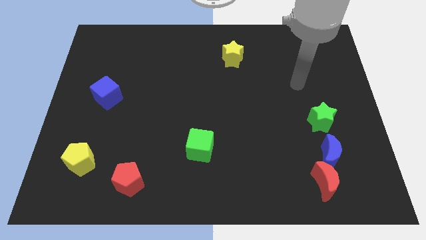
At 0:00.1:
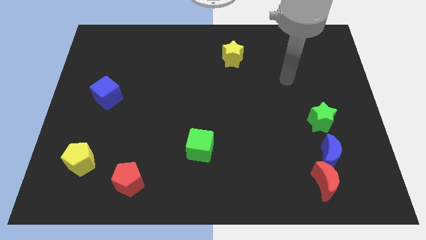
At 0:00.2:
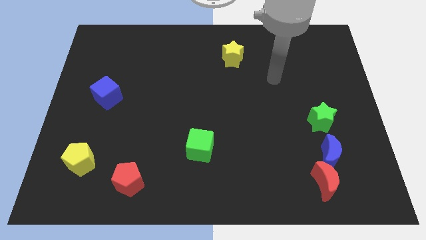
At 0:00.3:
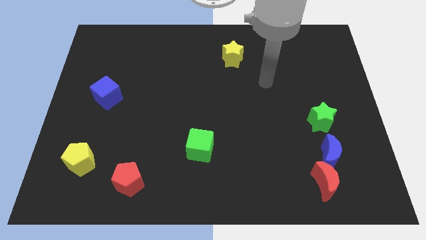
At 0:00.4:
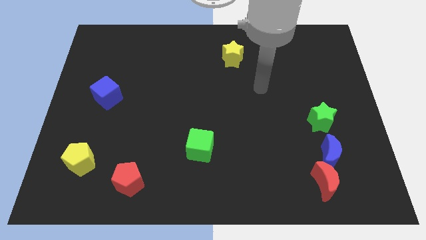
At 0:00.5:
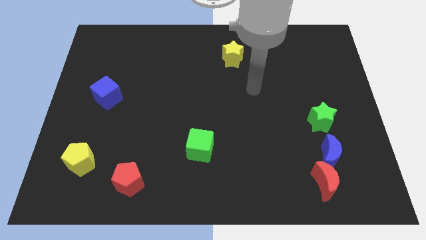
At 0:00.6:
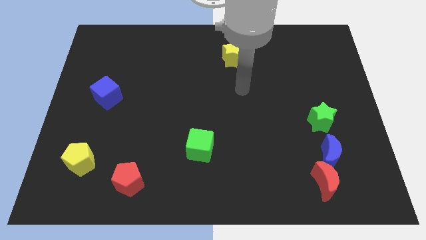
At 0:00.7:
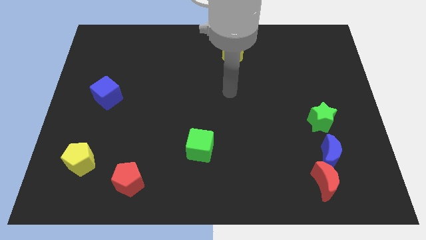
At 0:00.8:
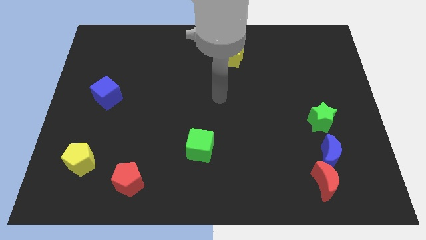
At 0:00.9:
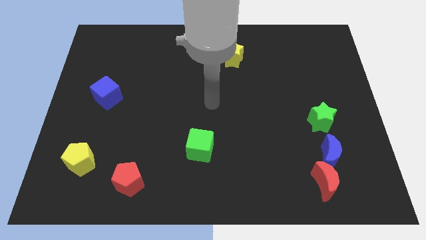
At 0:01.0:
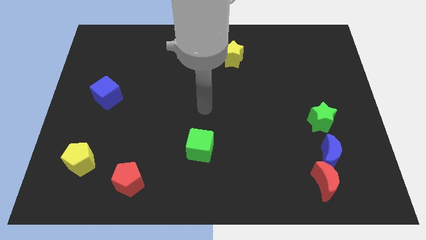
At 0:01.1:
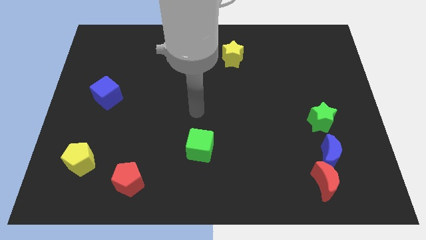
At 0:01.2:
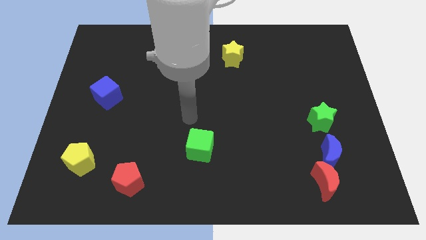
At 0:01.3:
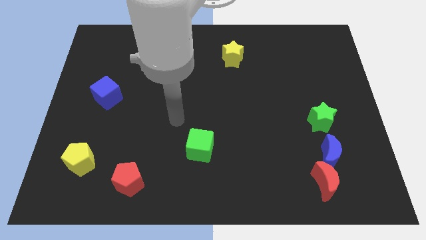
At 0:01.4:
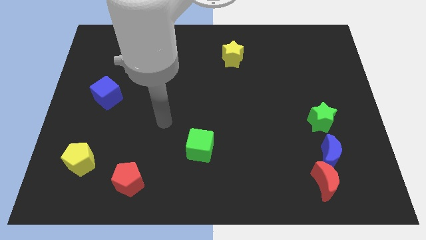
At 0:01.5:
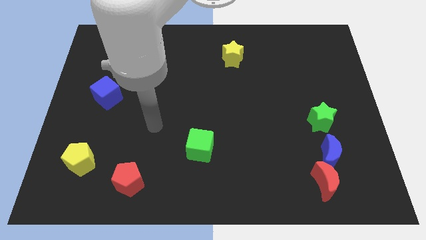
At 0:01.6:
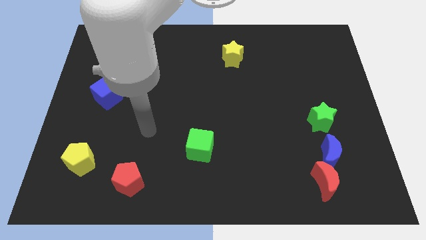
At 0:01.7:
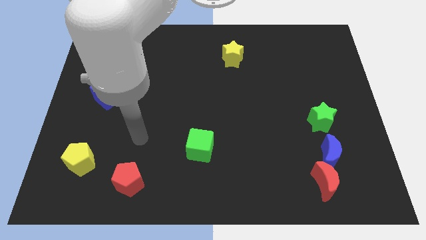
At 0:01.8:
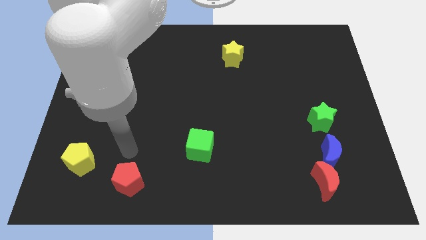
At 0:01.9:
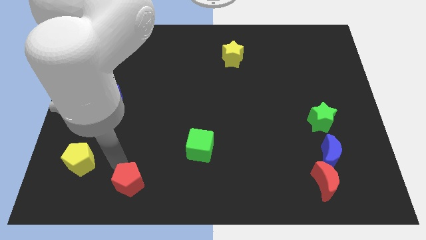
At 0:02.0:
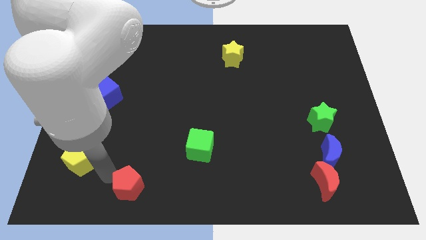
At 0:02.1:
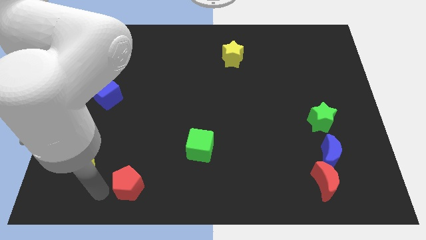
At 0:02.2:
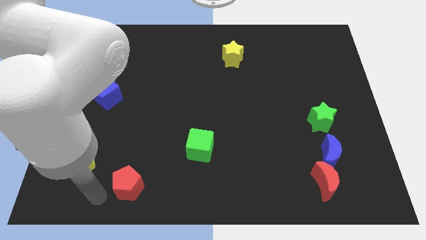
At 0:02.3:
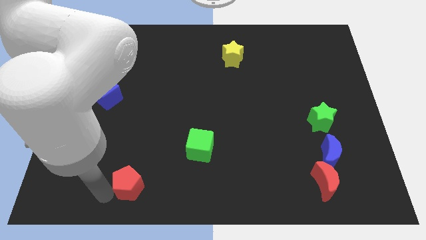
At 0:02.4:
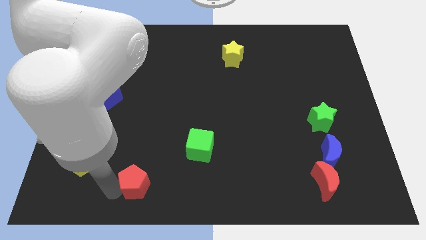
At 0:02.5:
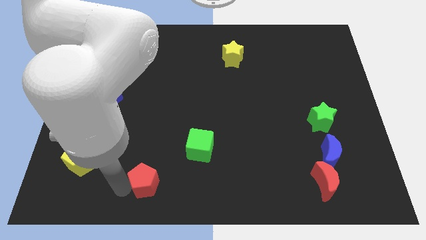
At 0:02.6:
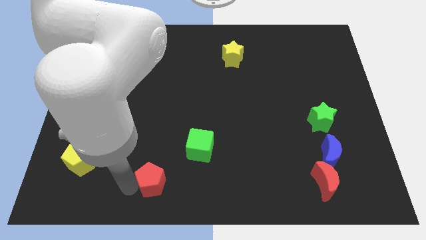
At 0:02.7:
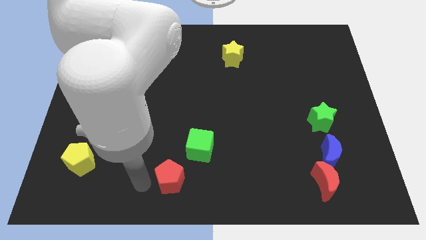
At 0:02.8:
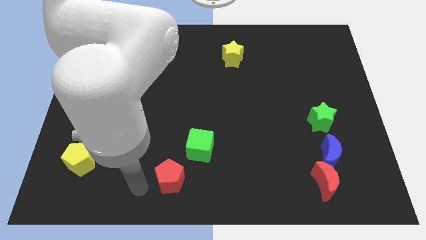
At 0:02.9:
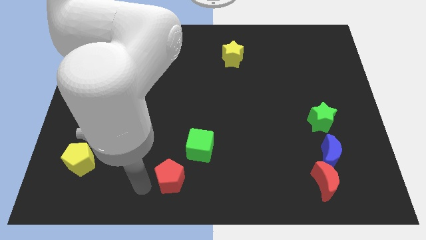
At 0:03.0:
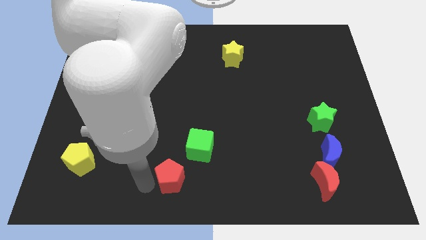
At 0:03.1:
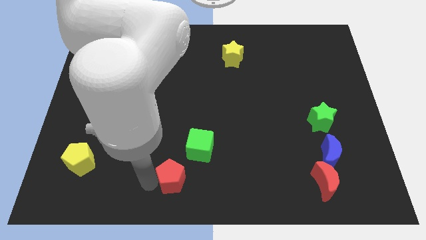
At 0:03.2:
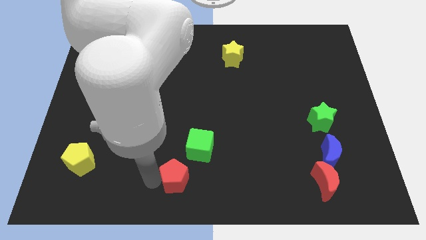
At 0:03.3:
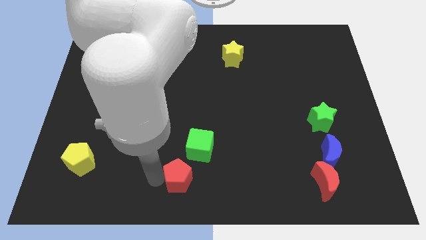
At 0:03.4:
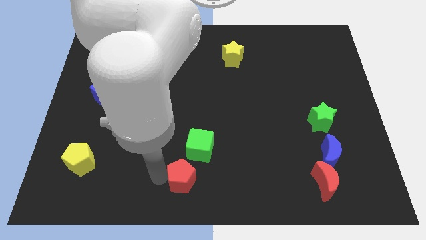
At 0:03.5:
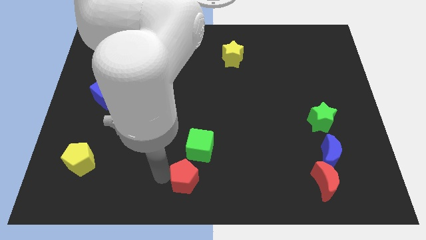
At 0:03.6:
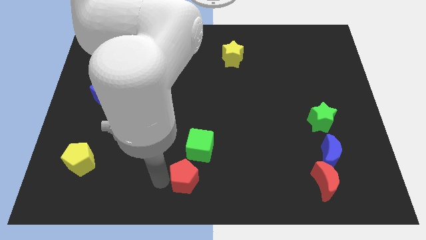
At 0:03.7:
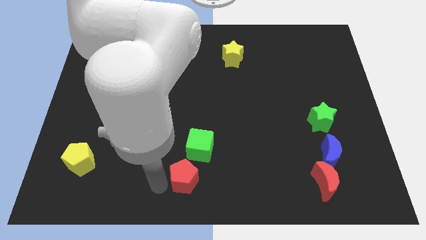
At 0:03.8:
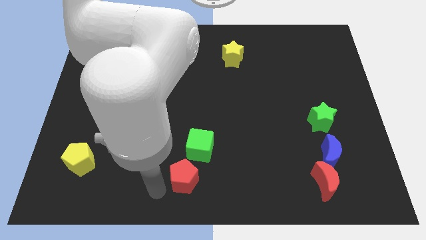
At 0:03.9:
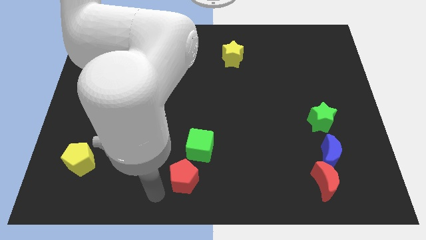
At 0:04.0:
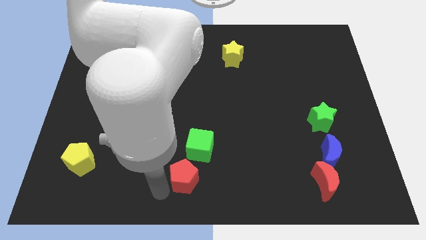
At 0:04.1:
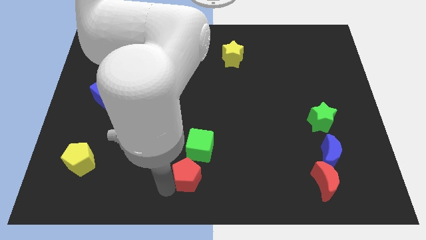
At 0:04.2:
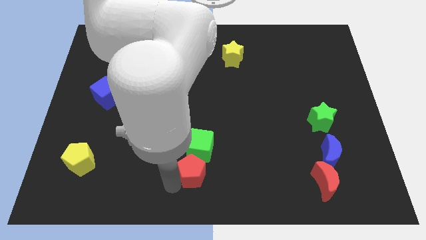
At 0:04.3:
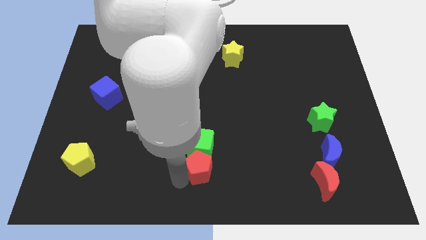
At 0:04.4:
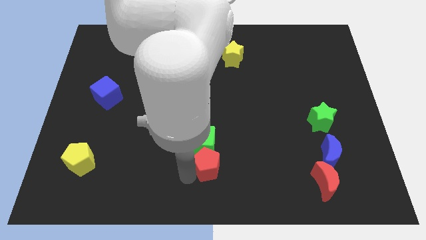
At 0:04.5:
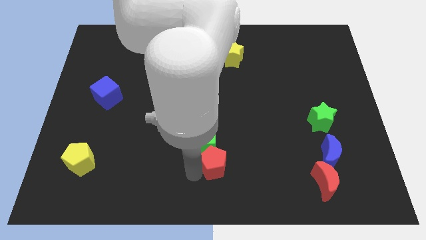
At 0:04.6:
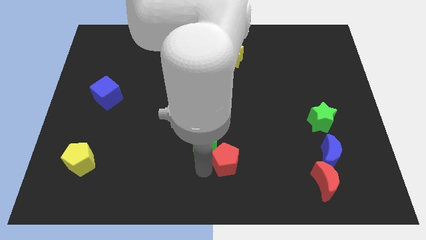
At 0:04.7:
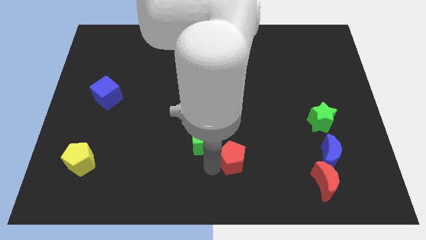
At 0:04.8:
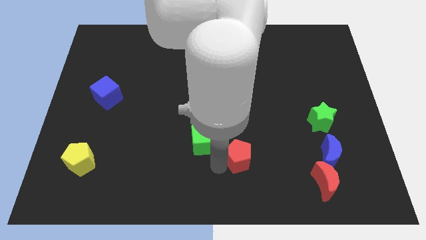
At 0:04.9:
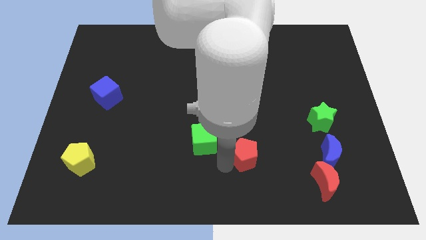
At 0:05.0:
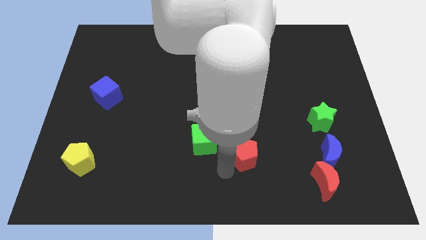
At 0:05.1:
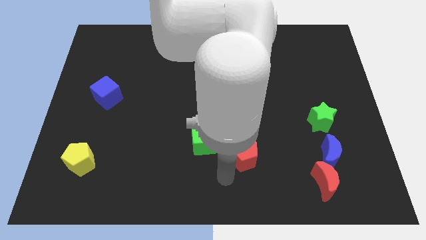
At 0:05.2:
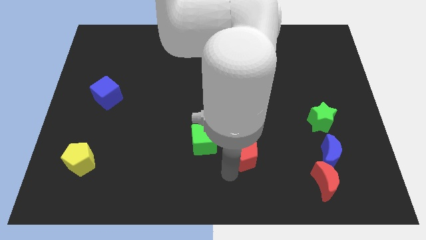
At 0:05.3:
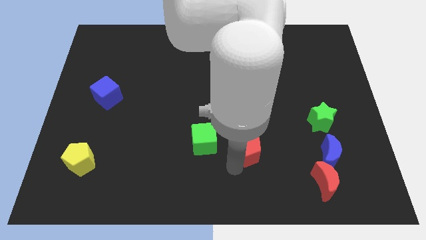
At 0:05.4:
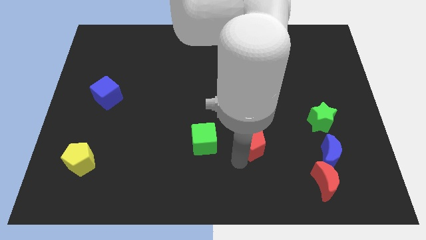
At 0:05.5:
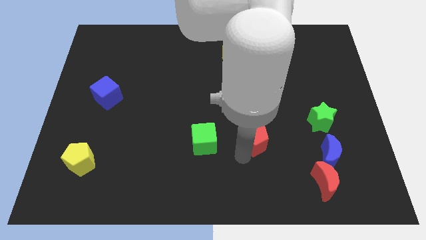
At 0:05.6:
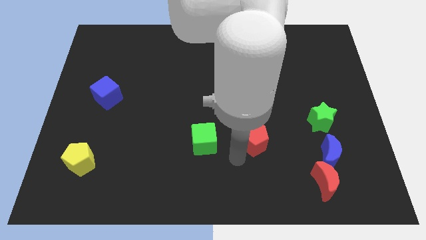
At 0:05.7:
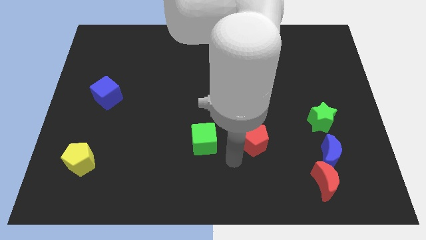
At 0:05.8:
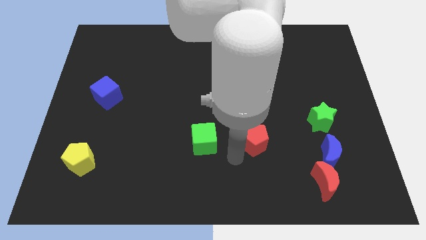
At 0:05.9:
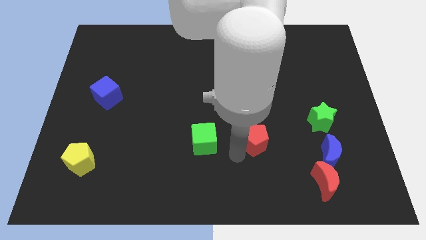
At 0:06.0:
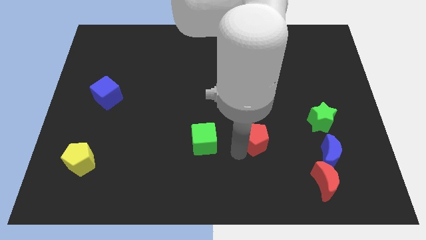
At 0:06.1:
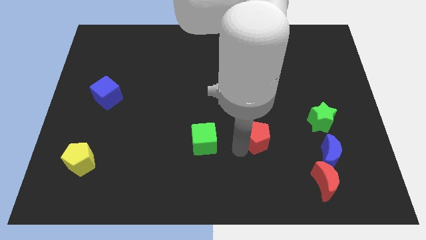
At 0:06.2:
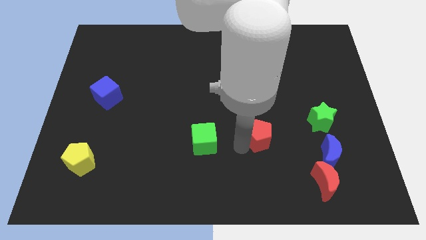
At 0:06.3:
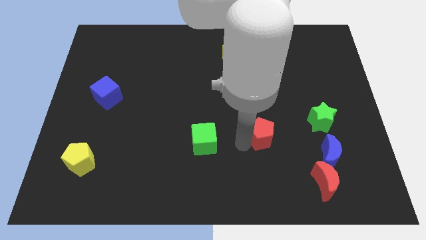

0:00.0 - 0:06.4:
move the red pentagon left of the green star
